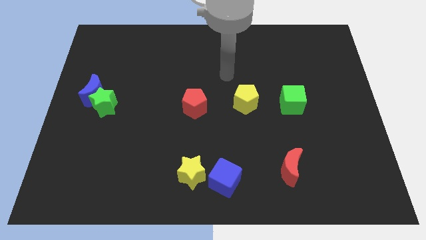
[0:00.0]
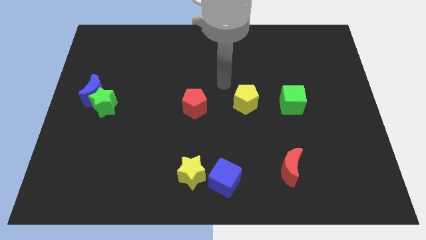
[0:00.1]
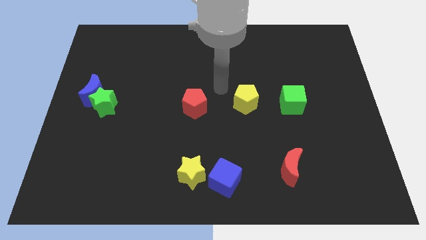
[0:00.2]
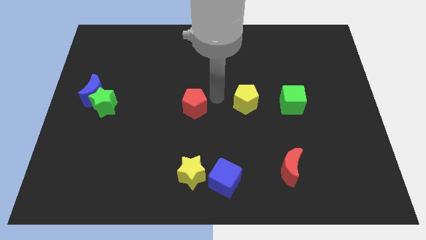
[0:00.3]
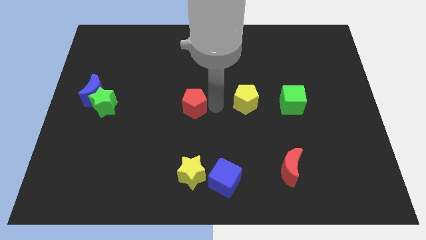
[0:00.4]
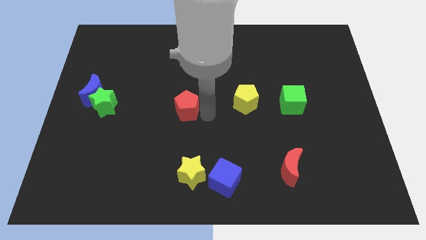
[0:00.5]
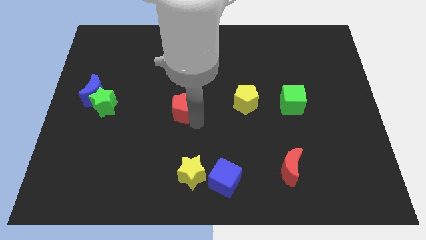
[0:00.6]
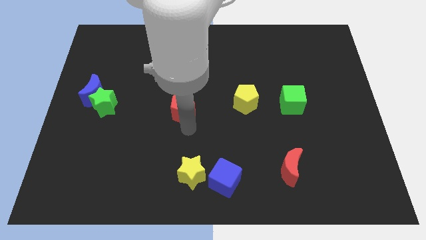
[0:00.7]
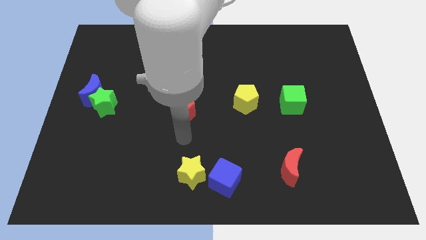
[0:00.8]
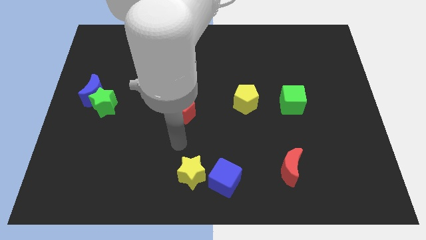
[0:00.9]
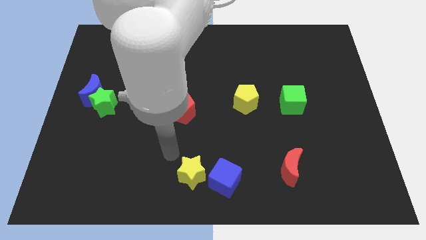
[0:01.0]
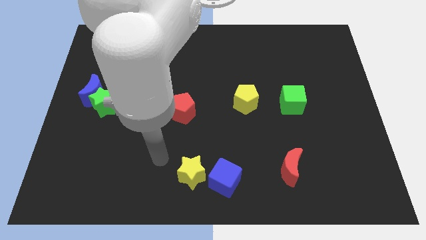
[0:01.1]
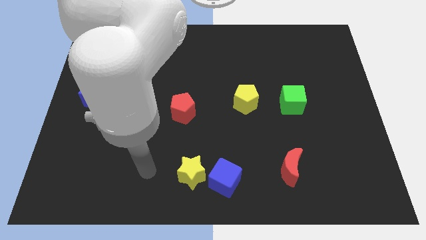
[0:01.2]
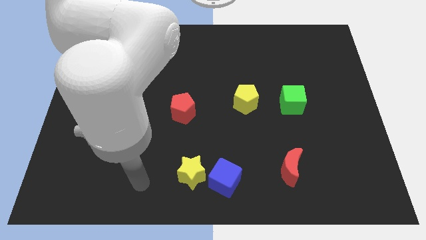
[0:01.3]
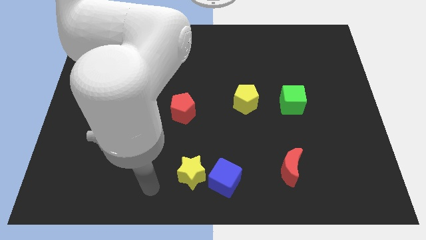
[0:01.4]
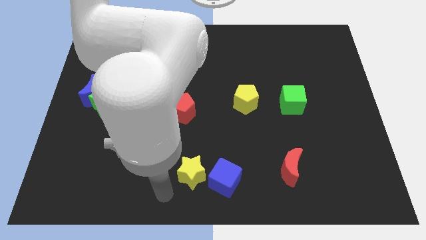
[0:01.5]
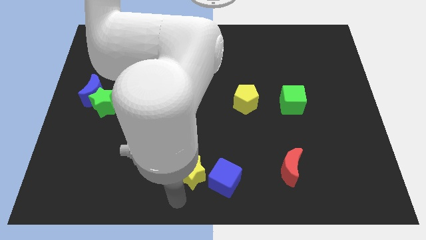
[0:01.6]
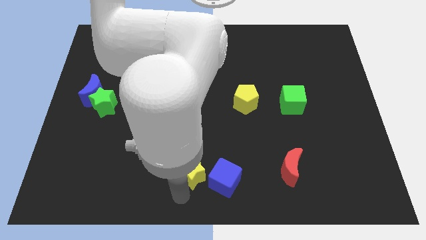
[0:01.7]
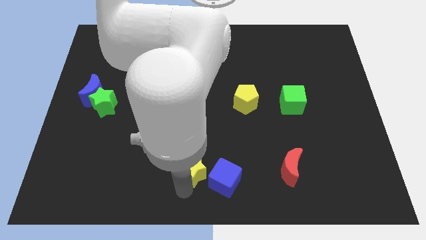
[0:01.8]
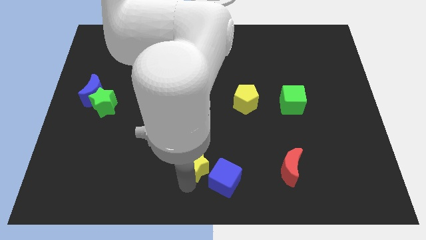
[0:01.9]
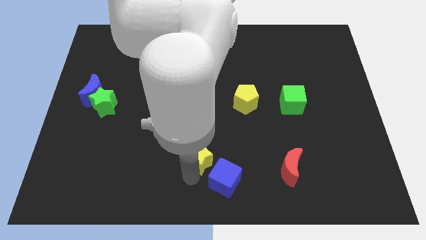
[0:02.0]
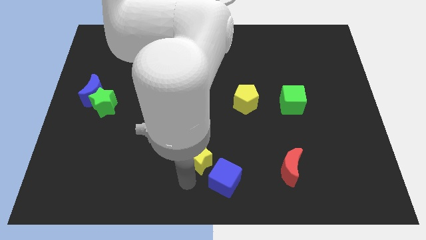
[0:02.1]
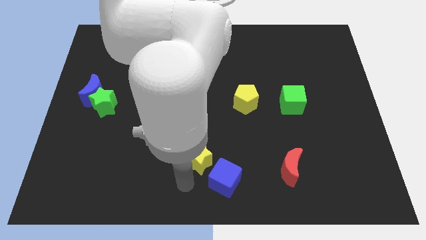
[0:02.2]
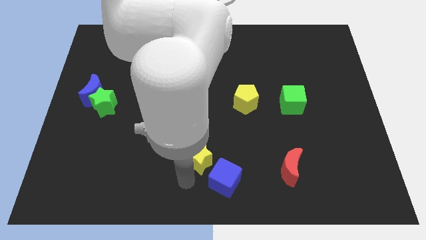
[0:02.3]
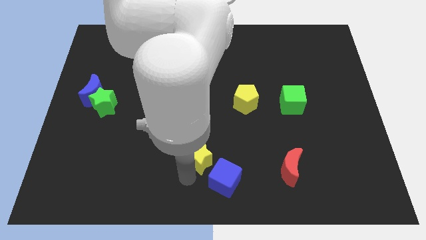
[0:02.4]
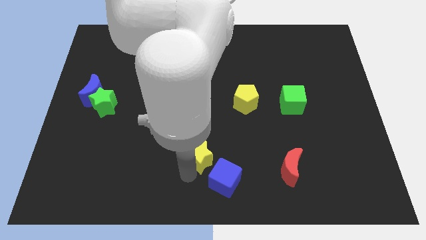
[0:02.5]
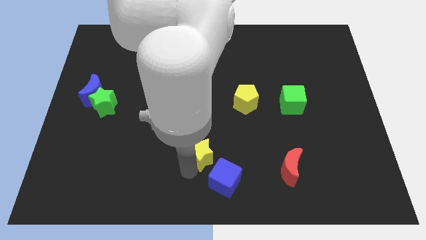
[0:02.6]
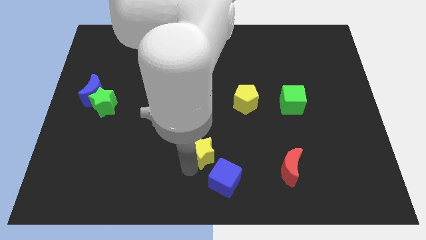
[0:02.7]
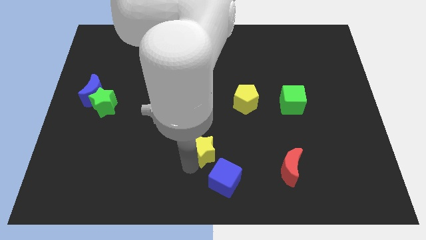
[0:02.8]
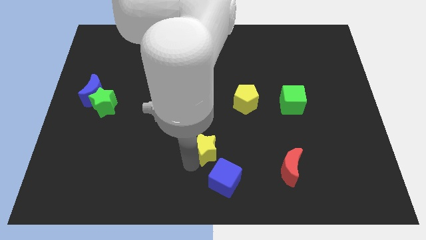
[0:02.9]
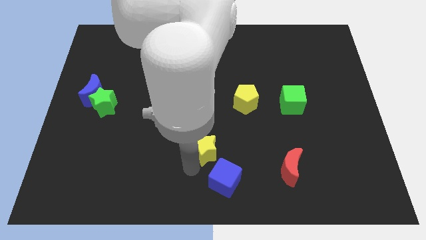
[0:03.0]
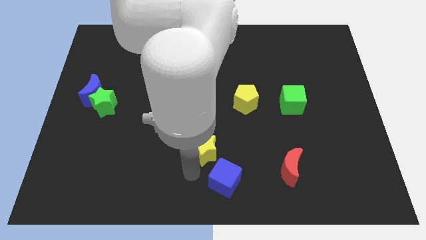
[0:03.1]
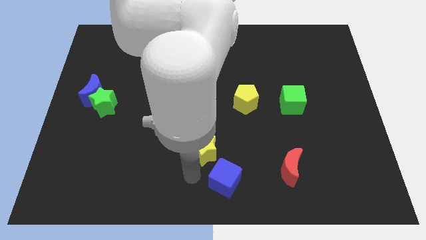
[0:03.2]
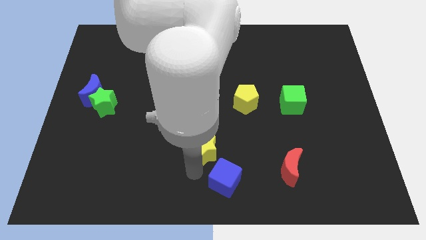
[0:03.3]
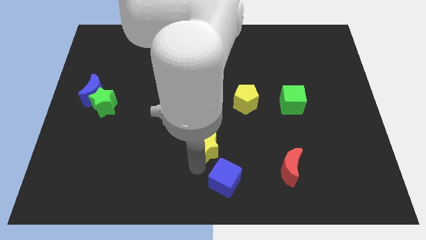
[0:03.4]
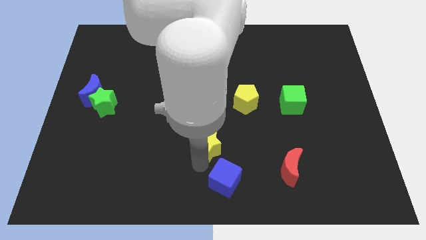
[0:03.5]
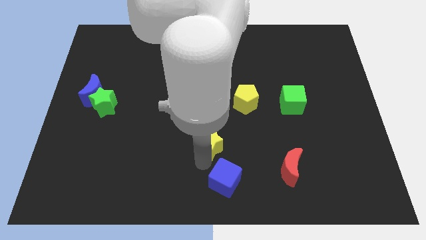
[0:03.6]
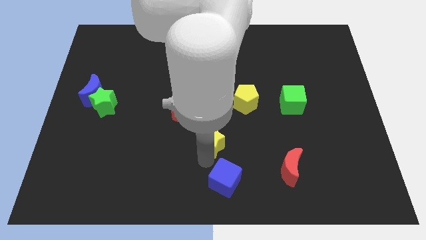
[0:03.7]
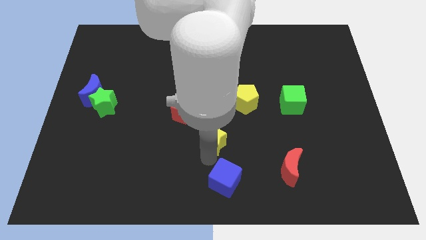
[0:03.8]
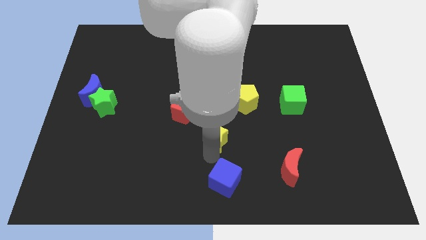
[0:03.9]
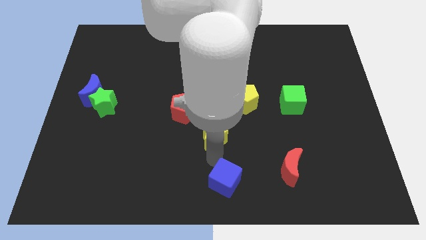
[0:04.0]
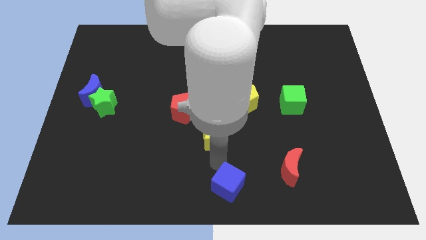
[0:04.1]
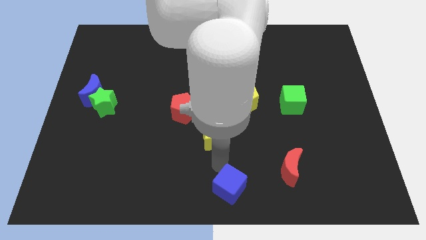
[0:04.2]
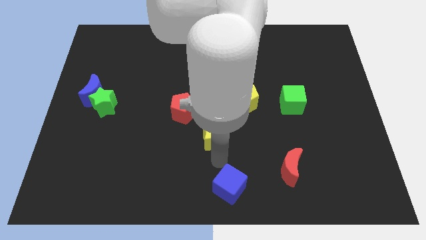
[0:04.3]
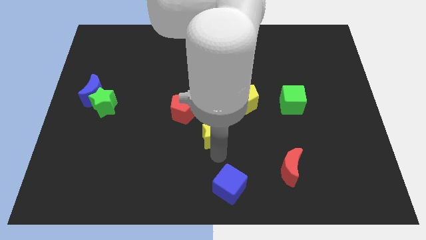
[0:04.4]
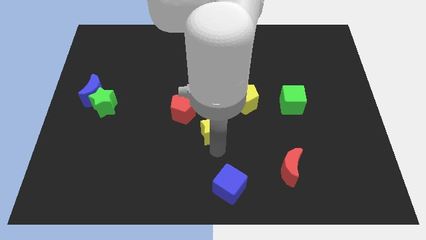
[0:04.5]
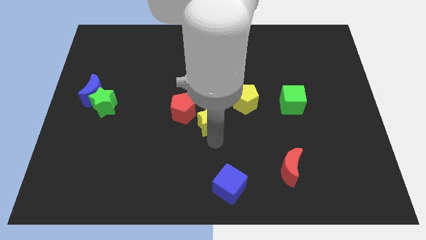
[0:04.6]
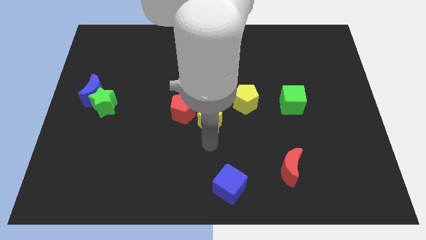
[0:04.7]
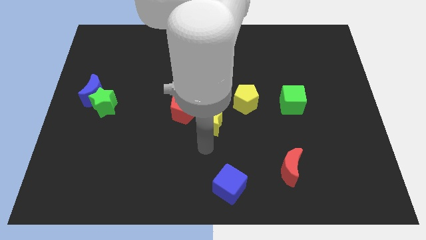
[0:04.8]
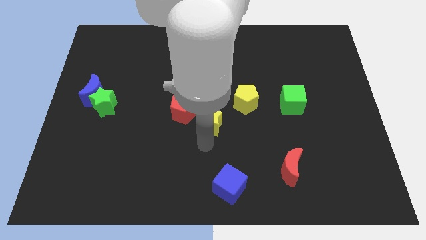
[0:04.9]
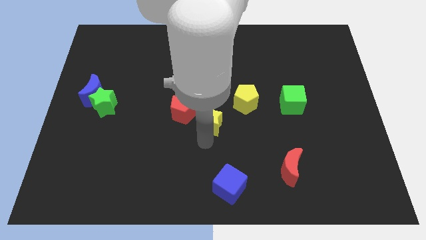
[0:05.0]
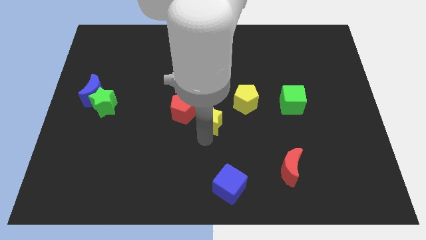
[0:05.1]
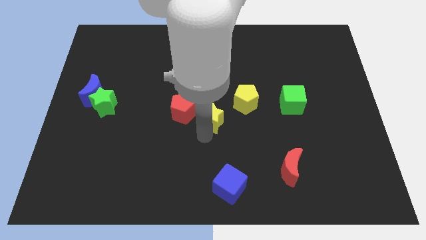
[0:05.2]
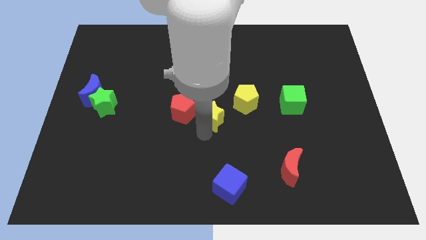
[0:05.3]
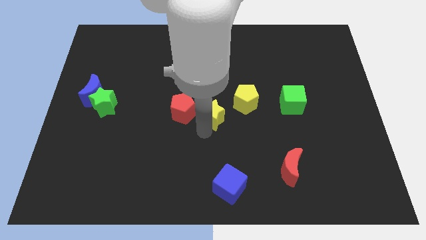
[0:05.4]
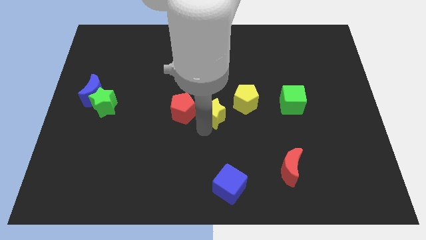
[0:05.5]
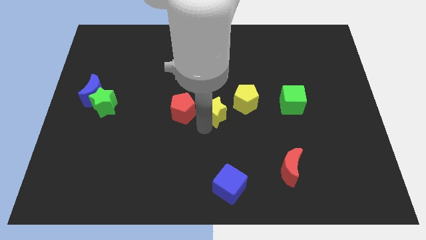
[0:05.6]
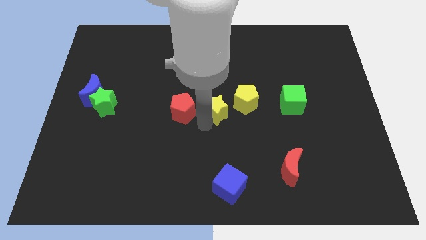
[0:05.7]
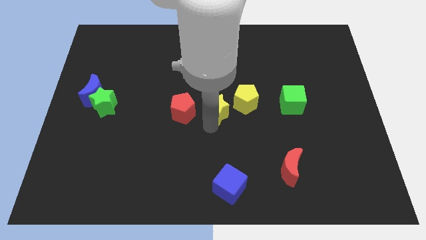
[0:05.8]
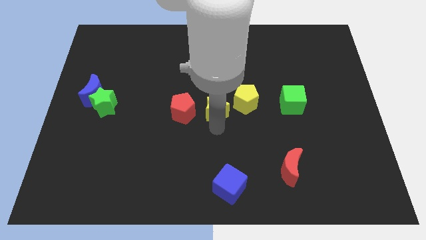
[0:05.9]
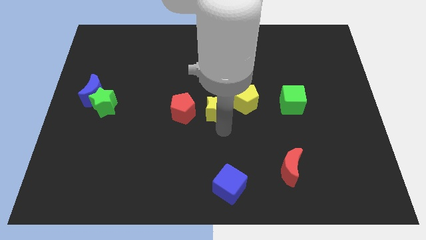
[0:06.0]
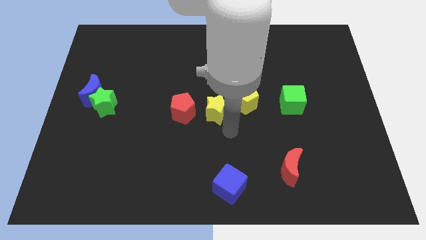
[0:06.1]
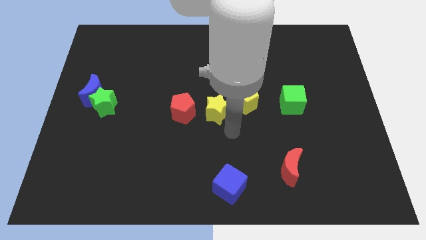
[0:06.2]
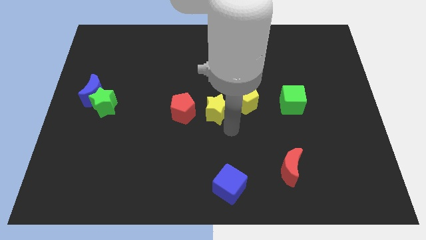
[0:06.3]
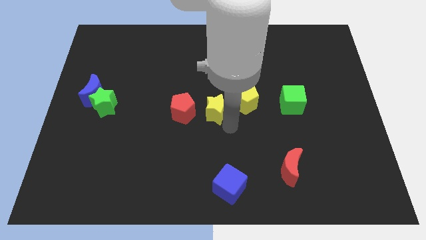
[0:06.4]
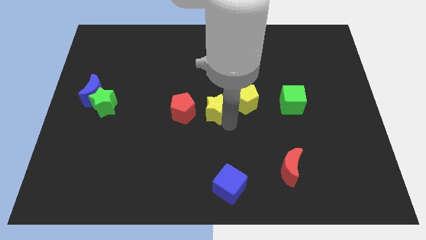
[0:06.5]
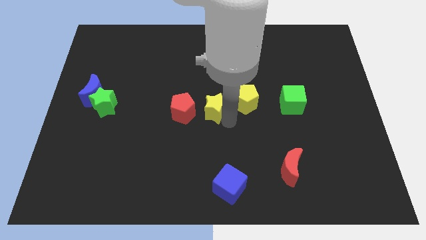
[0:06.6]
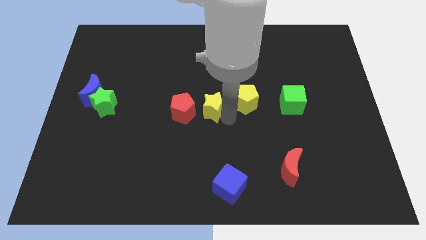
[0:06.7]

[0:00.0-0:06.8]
put the yellow star to the top right side of the red pentagon

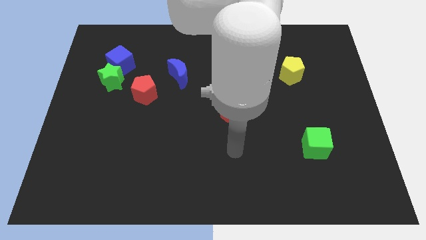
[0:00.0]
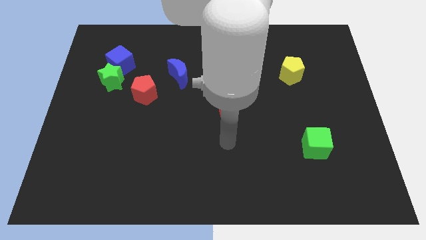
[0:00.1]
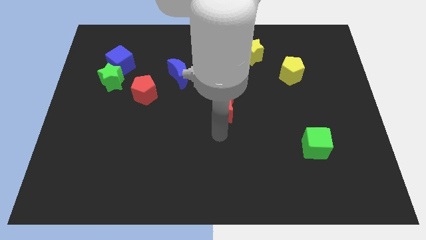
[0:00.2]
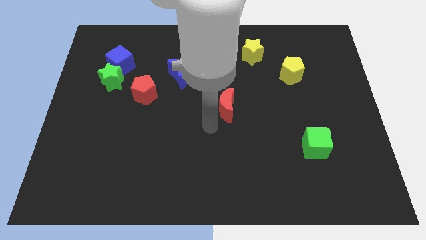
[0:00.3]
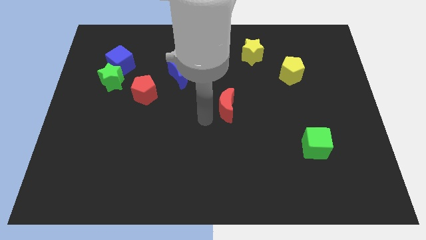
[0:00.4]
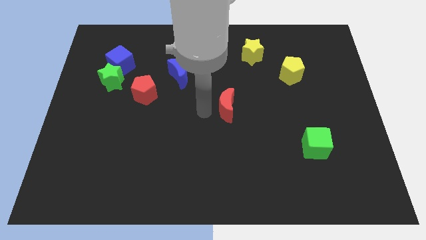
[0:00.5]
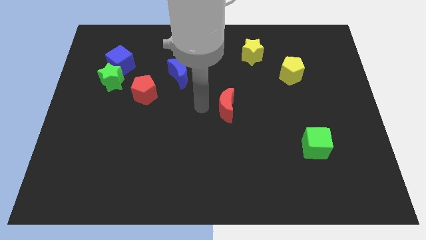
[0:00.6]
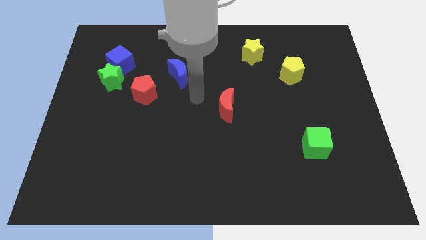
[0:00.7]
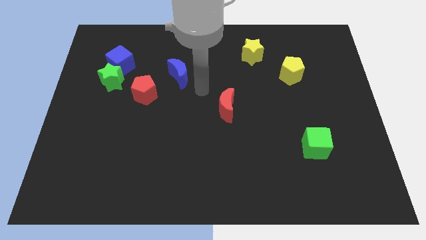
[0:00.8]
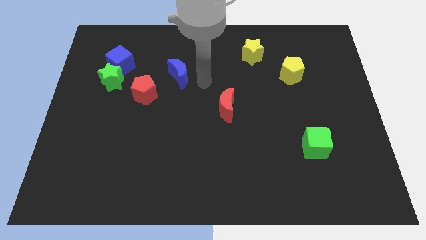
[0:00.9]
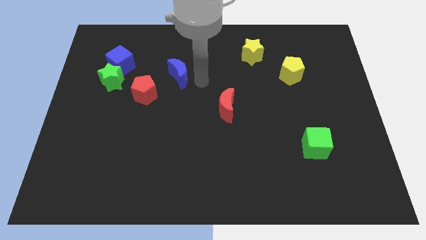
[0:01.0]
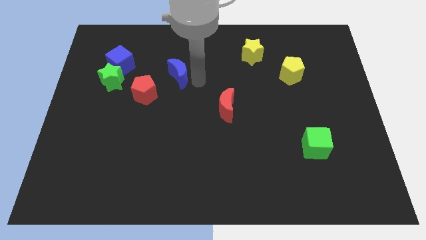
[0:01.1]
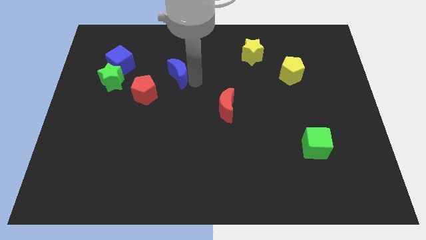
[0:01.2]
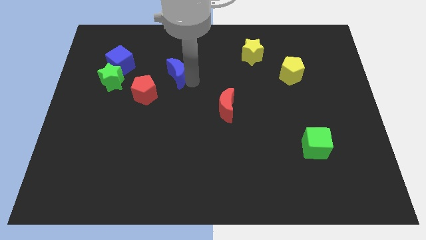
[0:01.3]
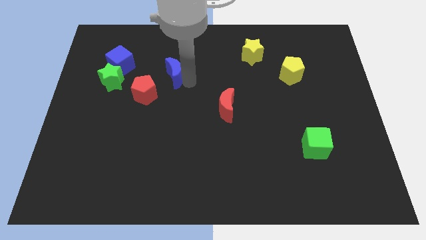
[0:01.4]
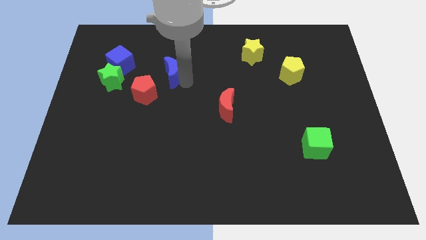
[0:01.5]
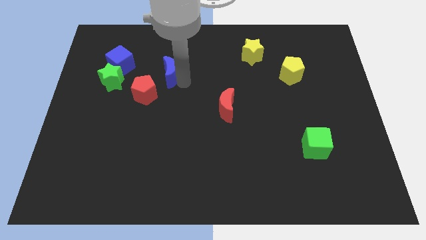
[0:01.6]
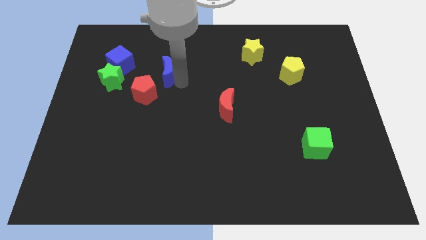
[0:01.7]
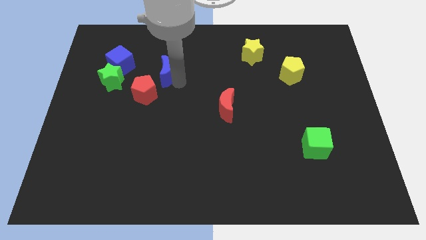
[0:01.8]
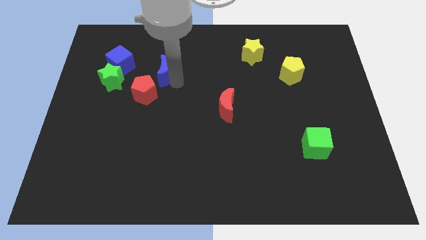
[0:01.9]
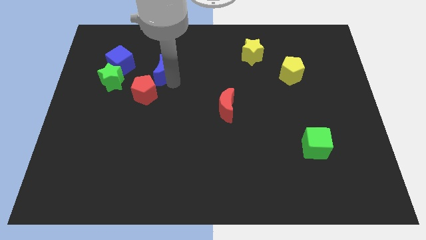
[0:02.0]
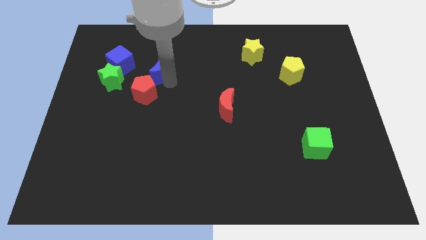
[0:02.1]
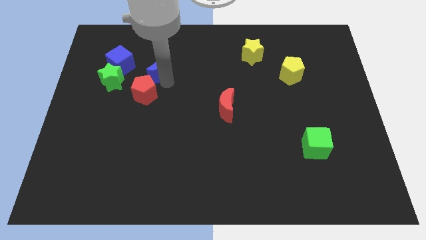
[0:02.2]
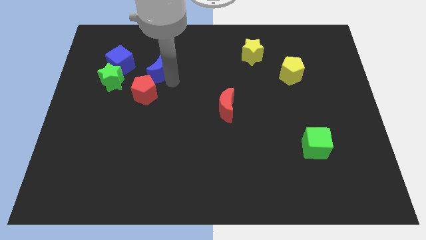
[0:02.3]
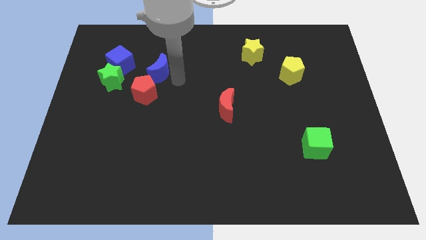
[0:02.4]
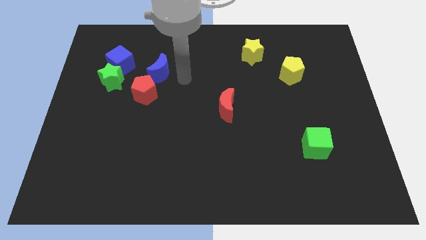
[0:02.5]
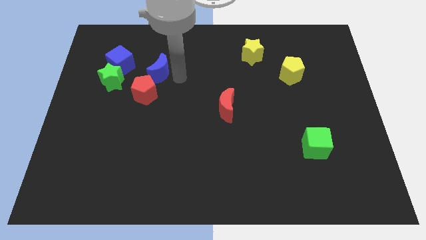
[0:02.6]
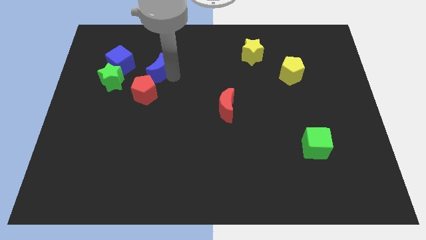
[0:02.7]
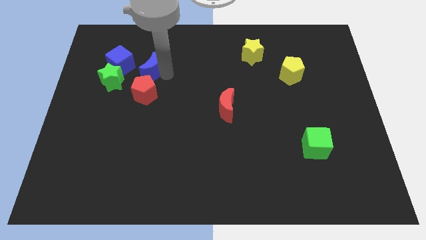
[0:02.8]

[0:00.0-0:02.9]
put the blue moon diagonally up and to the right of the green star
